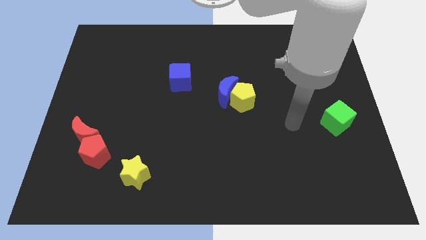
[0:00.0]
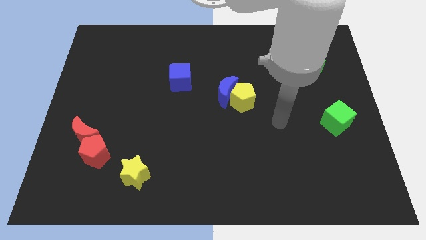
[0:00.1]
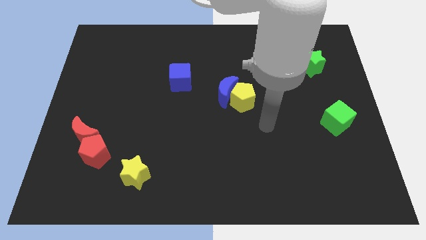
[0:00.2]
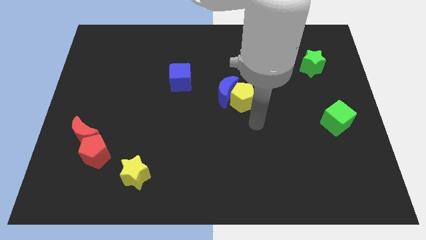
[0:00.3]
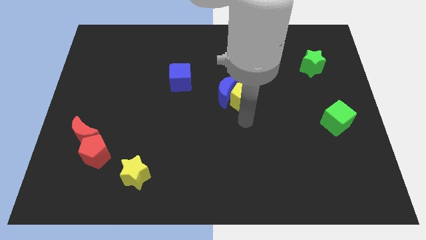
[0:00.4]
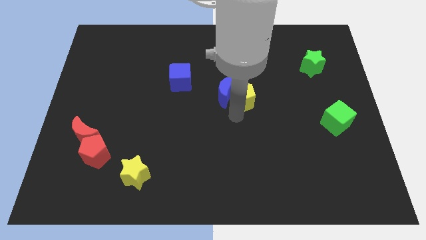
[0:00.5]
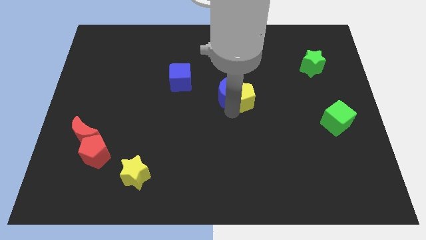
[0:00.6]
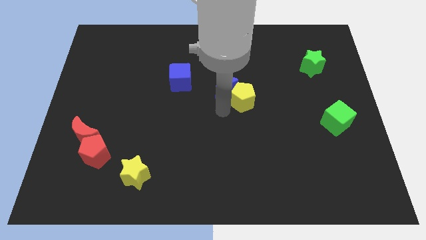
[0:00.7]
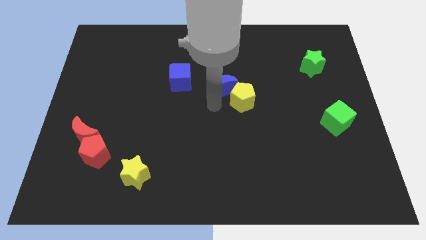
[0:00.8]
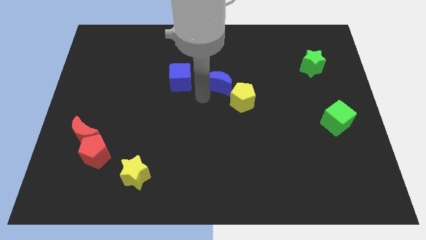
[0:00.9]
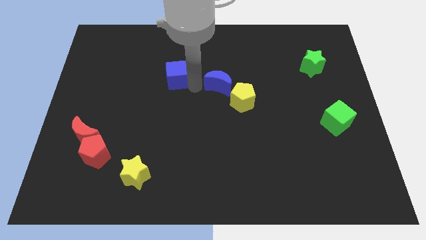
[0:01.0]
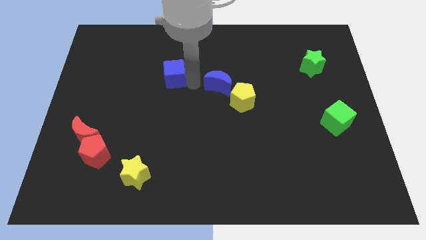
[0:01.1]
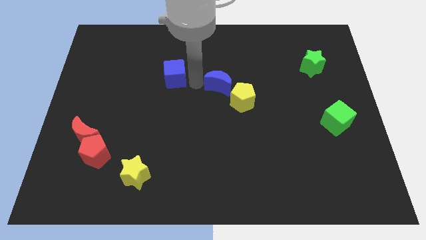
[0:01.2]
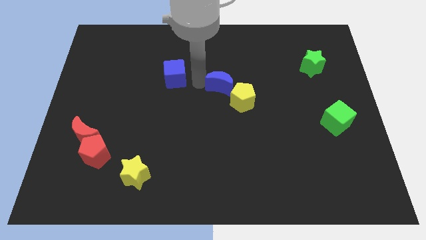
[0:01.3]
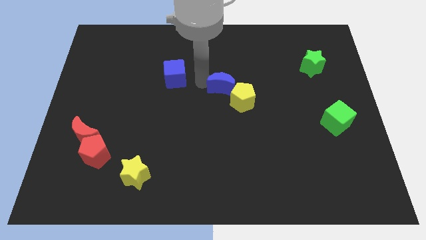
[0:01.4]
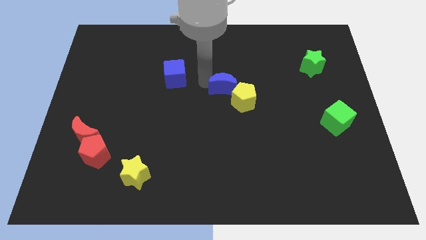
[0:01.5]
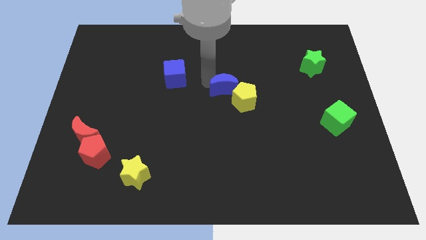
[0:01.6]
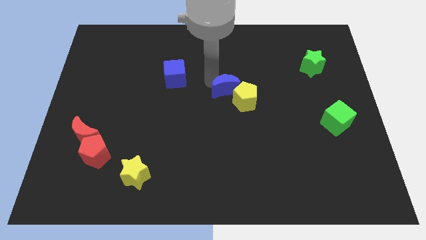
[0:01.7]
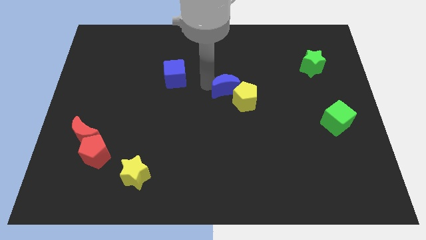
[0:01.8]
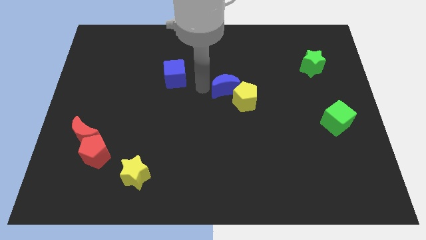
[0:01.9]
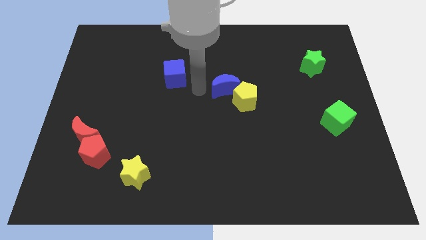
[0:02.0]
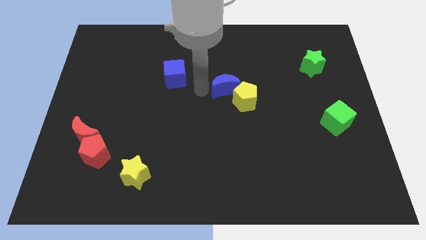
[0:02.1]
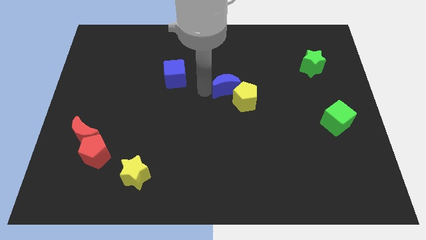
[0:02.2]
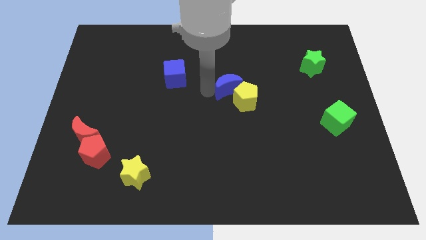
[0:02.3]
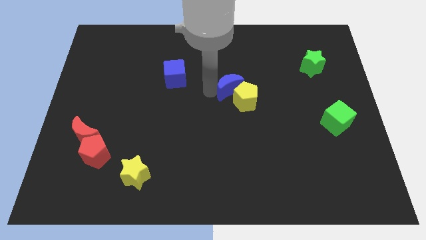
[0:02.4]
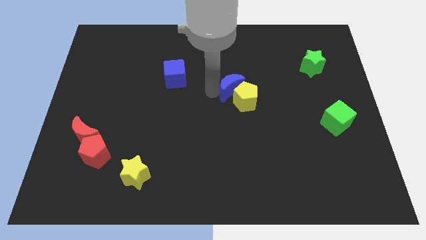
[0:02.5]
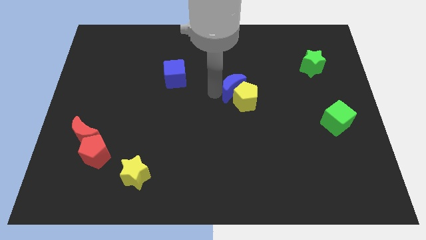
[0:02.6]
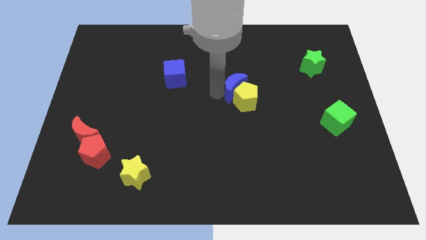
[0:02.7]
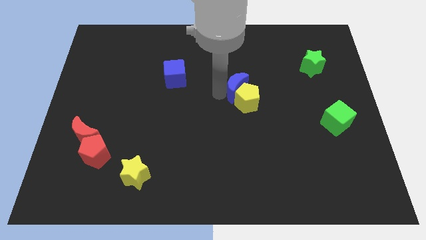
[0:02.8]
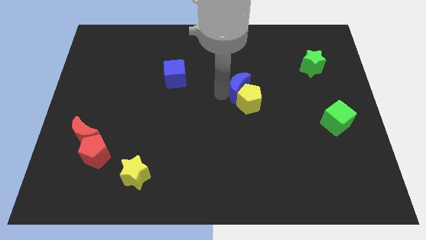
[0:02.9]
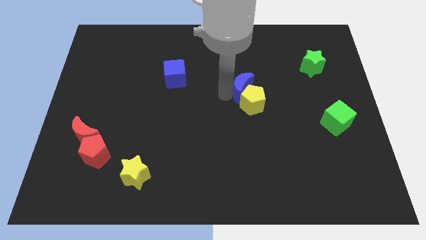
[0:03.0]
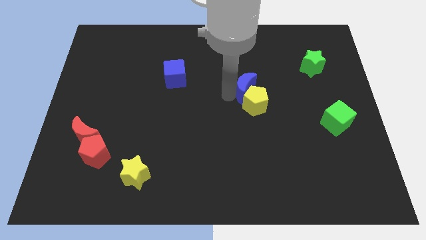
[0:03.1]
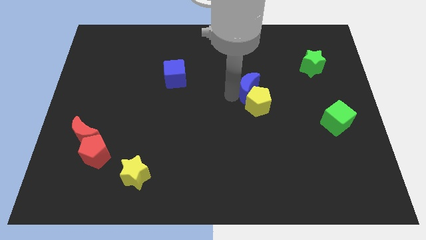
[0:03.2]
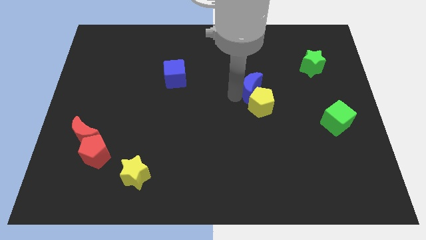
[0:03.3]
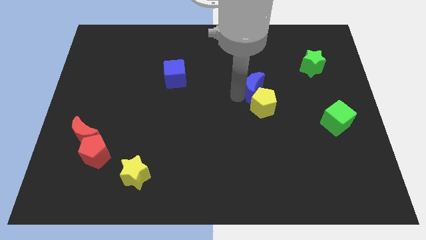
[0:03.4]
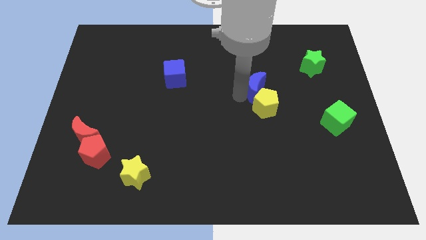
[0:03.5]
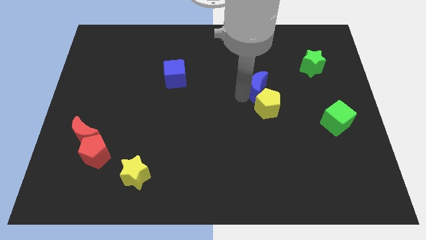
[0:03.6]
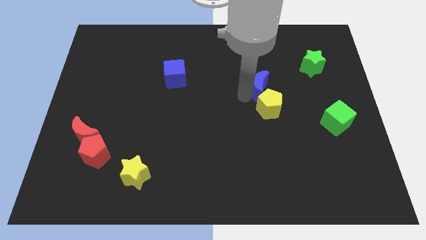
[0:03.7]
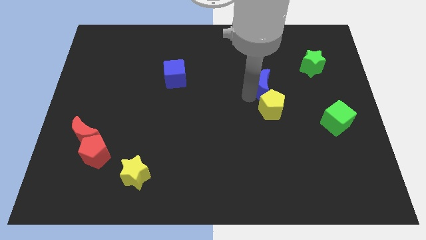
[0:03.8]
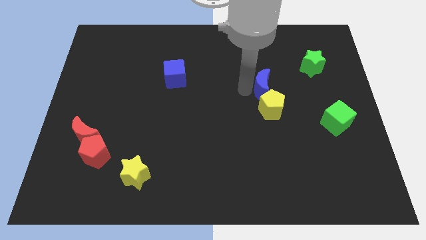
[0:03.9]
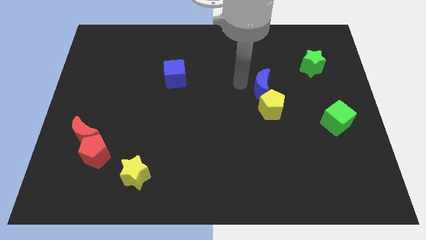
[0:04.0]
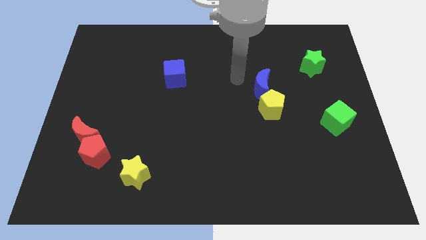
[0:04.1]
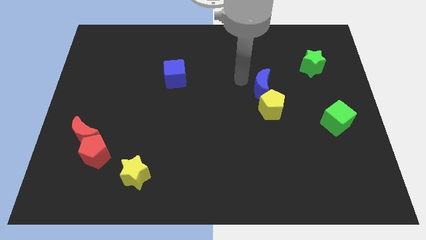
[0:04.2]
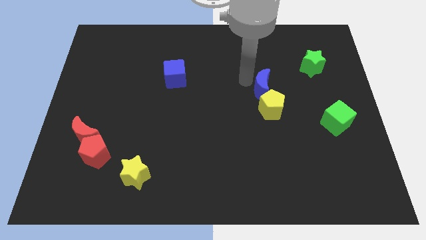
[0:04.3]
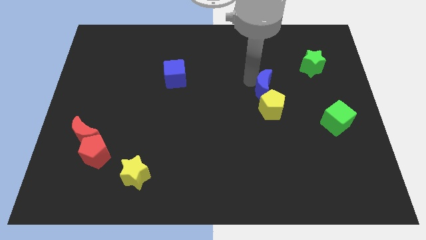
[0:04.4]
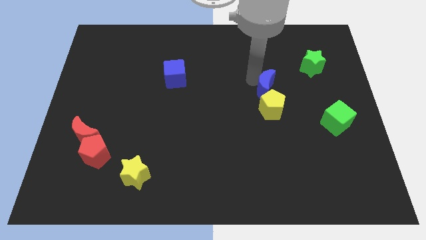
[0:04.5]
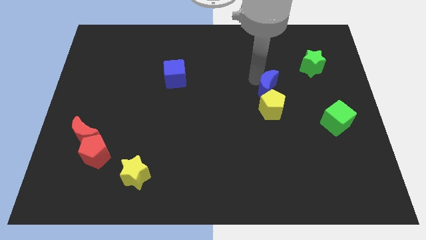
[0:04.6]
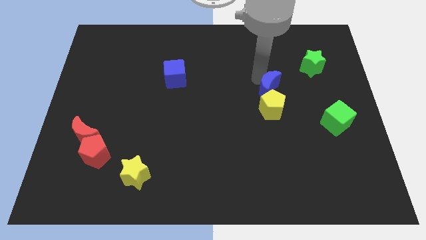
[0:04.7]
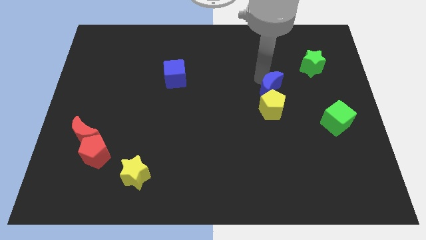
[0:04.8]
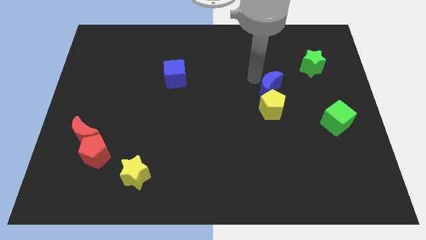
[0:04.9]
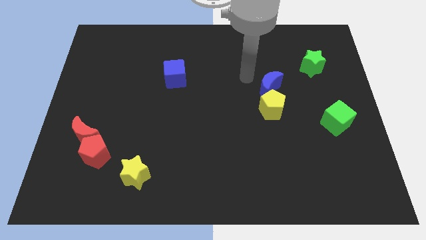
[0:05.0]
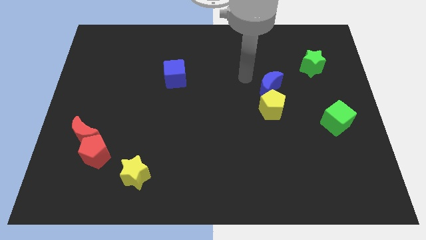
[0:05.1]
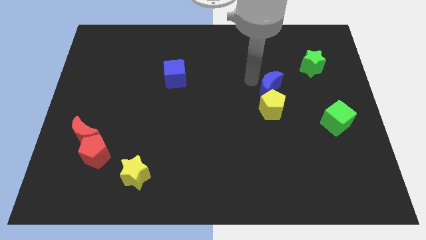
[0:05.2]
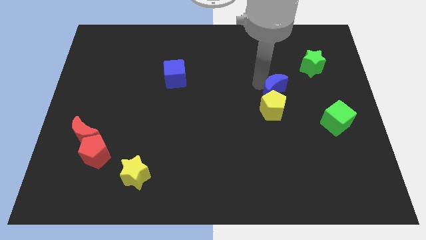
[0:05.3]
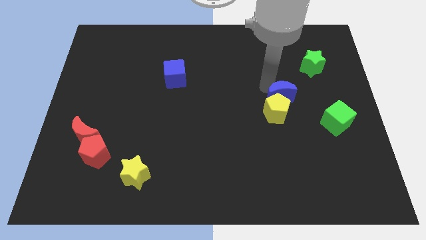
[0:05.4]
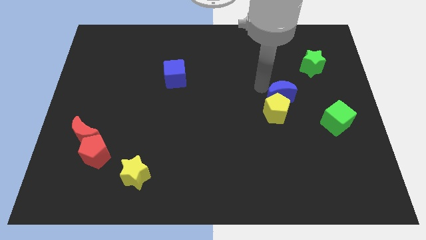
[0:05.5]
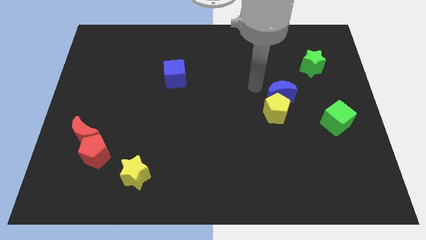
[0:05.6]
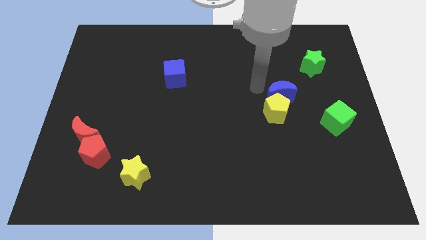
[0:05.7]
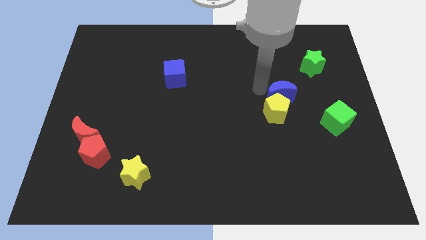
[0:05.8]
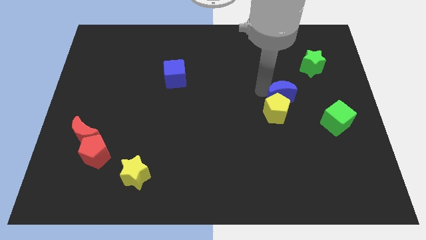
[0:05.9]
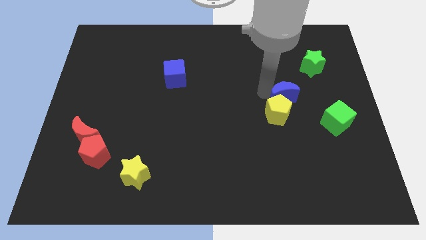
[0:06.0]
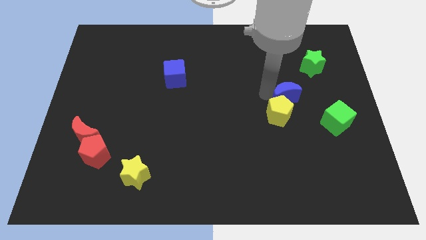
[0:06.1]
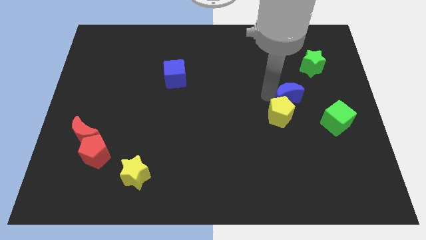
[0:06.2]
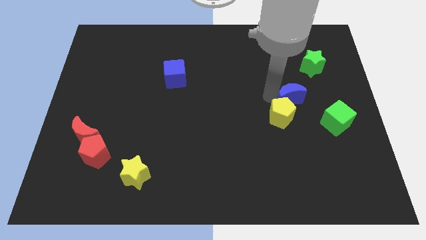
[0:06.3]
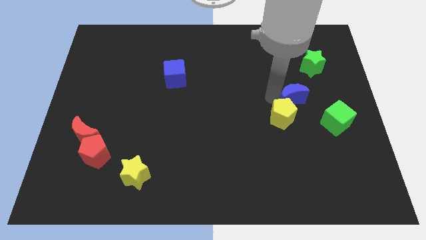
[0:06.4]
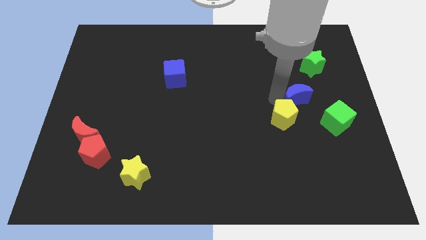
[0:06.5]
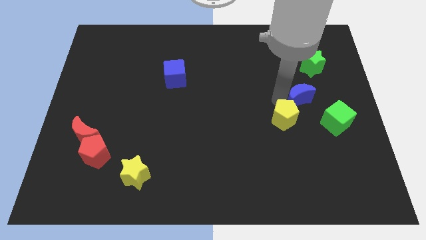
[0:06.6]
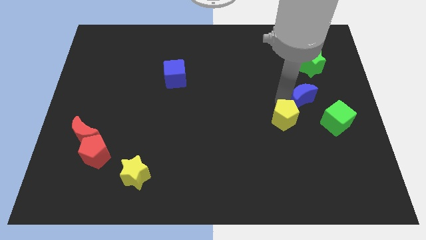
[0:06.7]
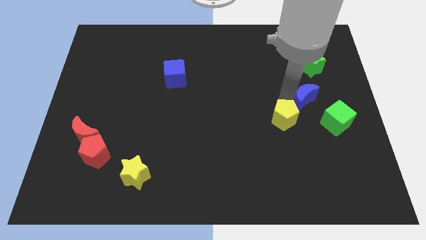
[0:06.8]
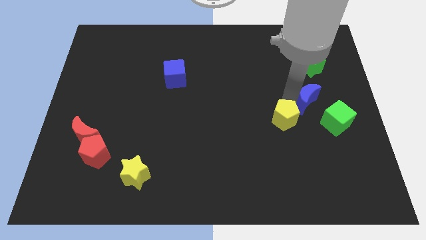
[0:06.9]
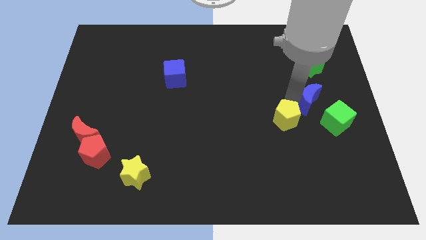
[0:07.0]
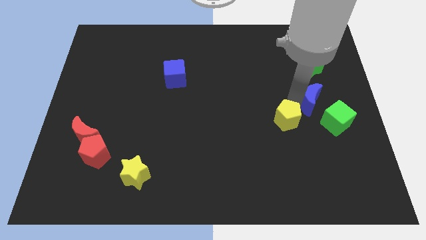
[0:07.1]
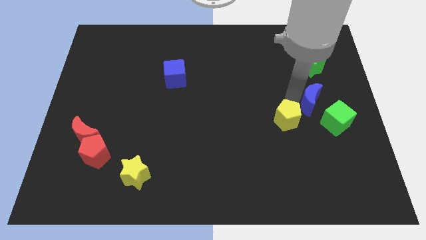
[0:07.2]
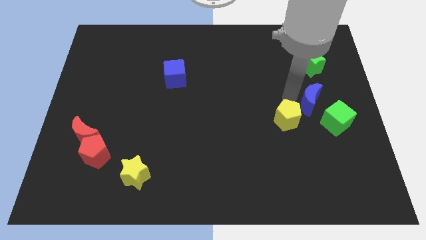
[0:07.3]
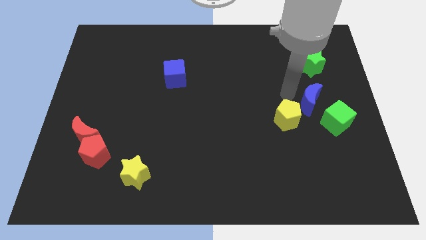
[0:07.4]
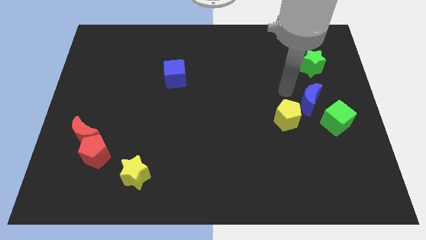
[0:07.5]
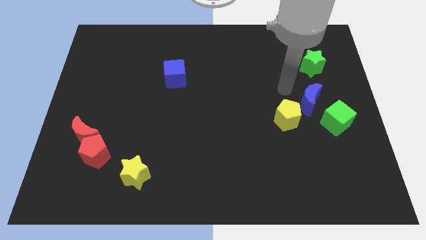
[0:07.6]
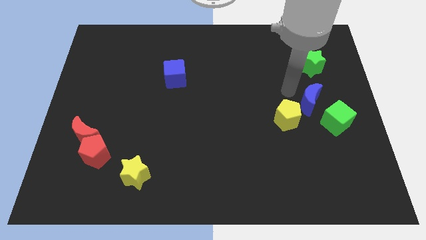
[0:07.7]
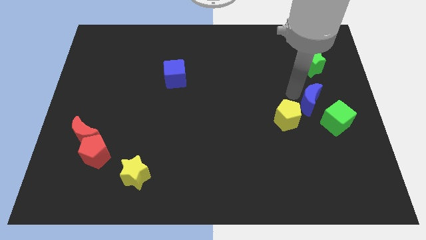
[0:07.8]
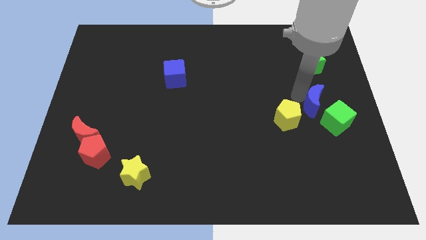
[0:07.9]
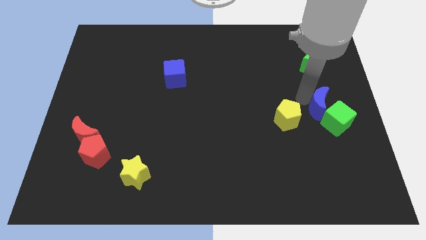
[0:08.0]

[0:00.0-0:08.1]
put the blue moon to the green cube
